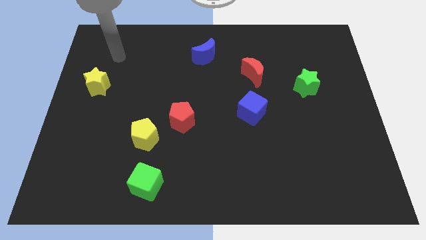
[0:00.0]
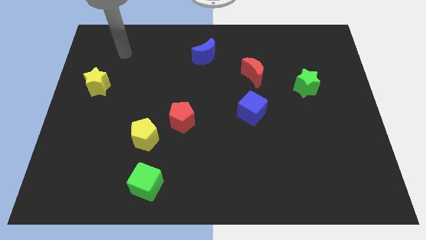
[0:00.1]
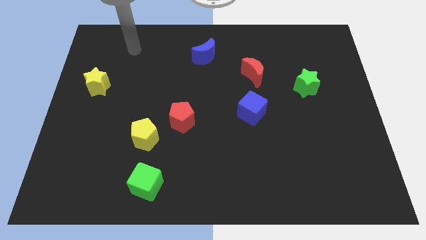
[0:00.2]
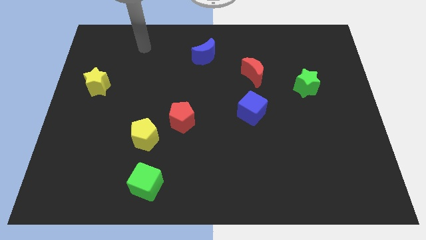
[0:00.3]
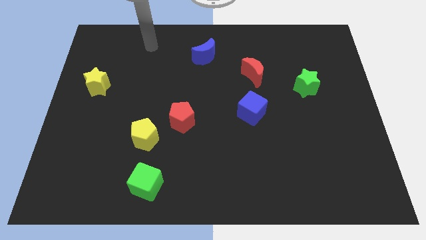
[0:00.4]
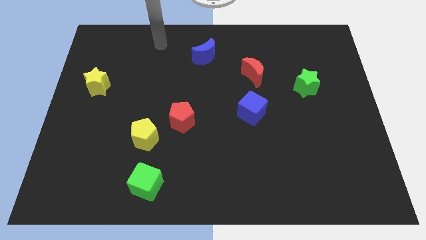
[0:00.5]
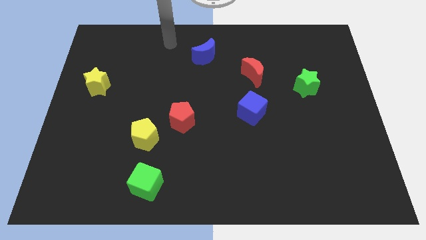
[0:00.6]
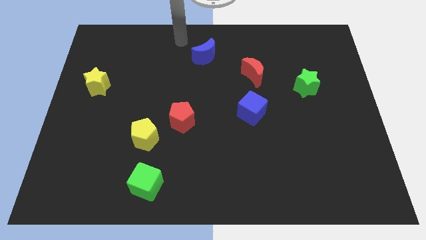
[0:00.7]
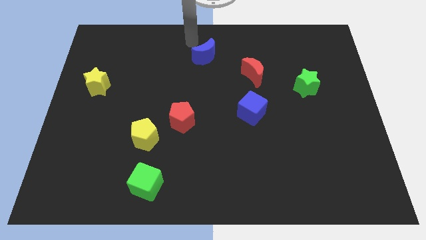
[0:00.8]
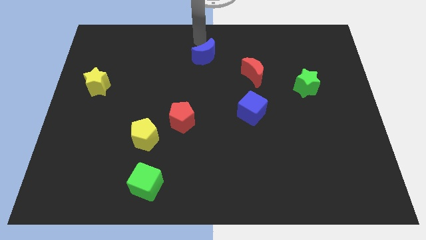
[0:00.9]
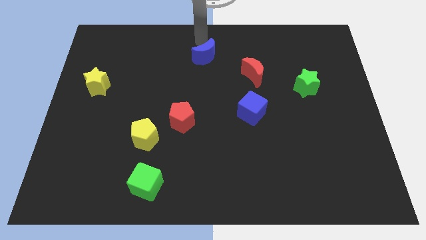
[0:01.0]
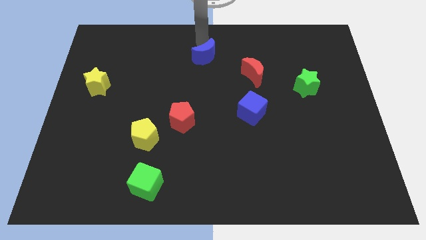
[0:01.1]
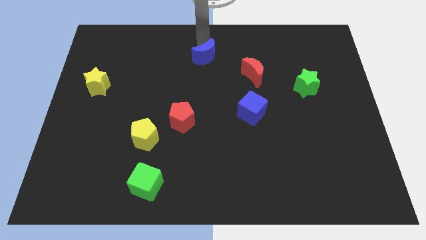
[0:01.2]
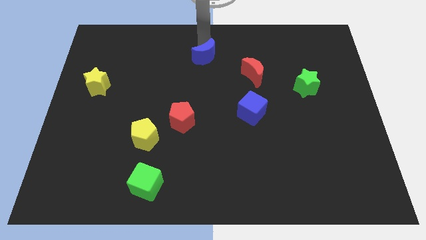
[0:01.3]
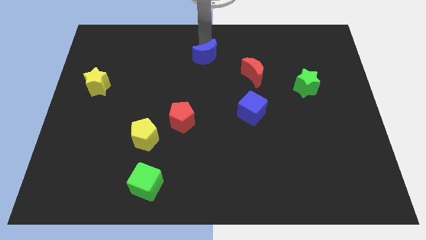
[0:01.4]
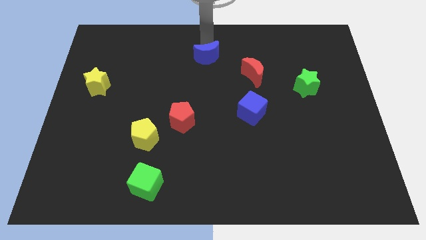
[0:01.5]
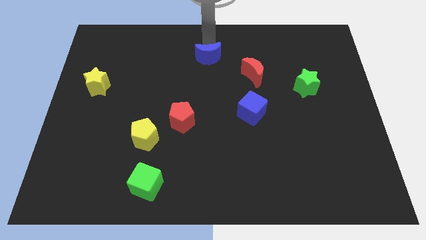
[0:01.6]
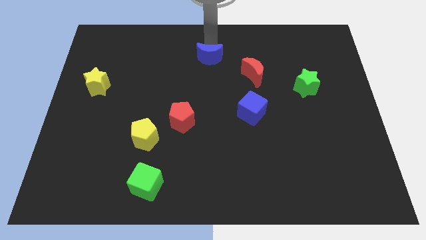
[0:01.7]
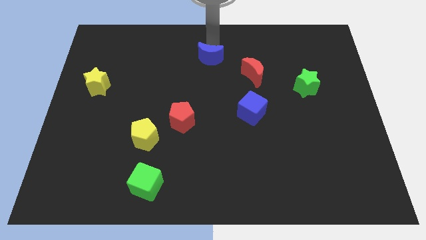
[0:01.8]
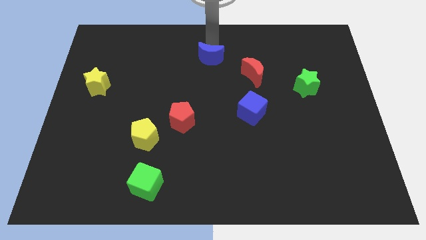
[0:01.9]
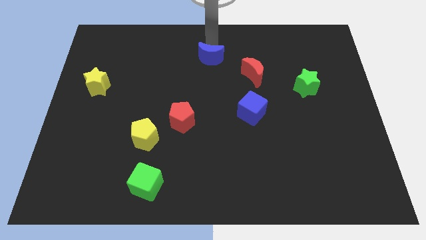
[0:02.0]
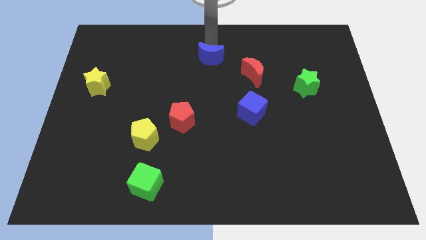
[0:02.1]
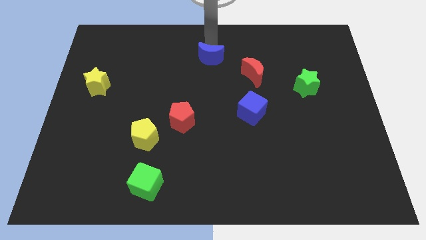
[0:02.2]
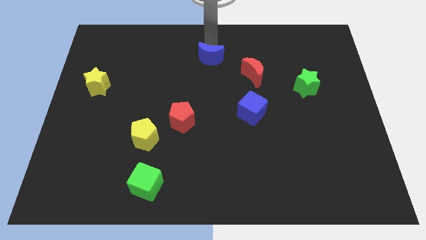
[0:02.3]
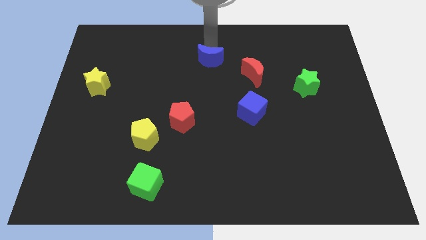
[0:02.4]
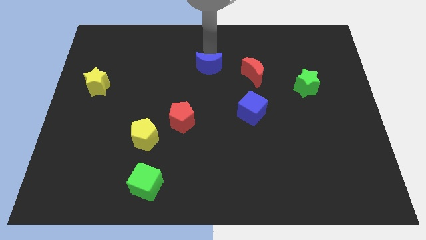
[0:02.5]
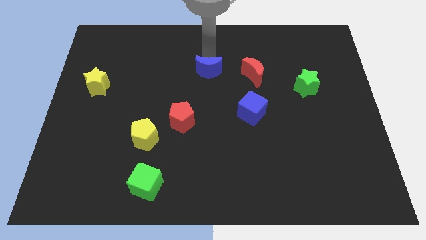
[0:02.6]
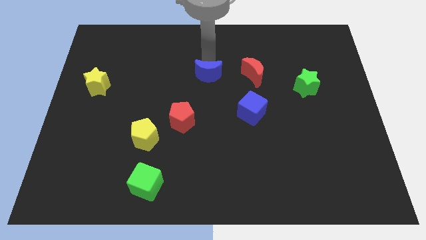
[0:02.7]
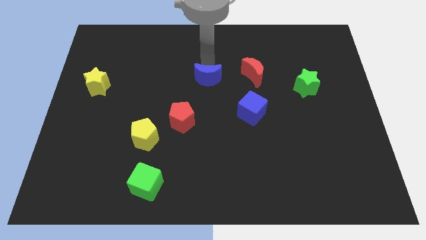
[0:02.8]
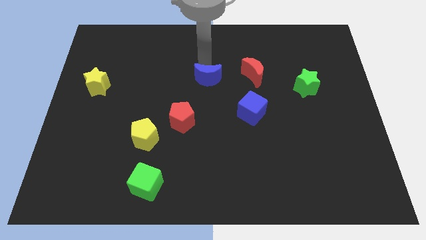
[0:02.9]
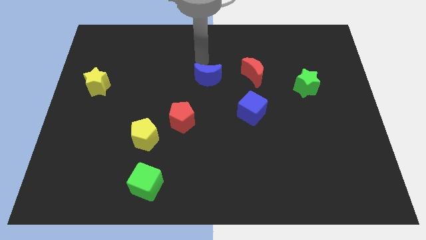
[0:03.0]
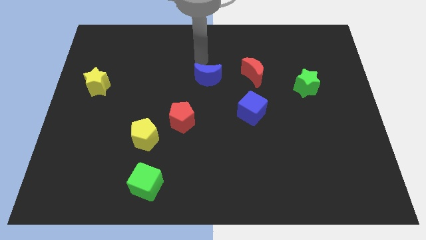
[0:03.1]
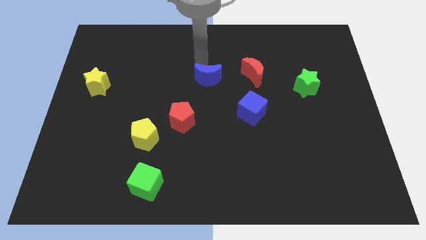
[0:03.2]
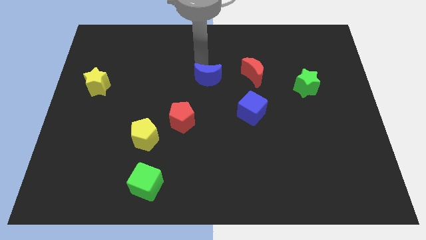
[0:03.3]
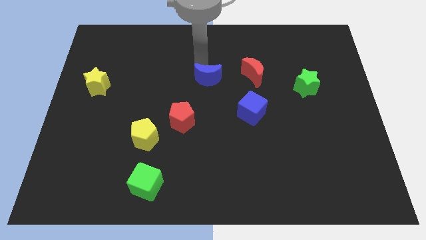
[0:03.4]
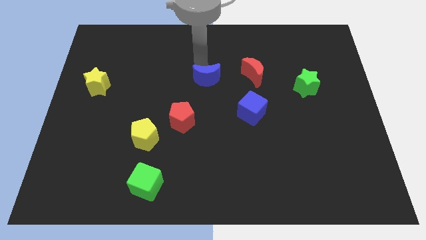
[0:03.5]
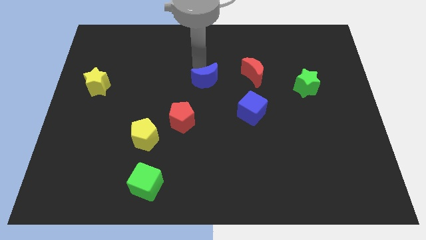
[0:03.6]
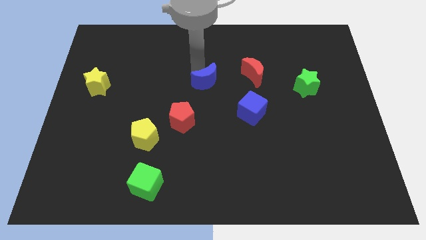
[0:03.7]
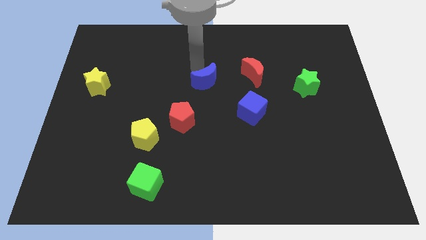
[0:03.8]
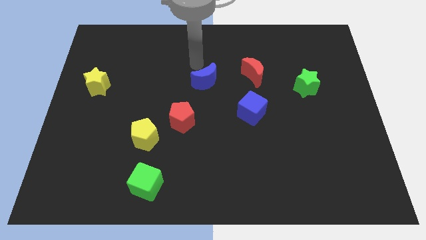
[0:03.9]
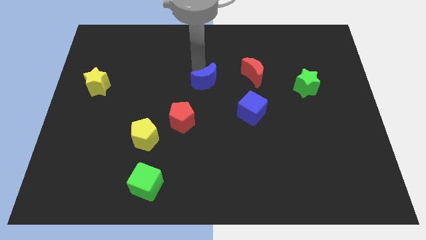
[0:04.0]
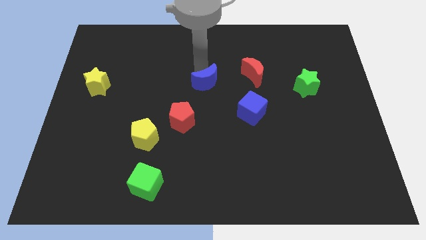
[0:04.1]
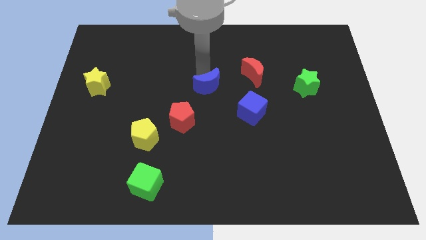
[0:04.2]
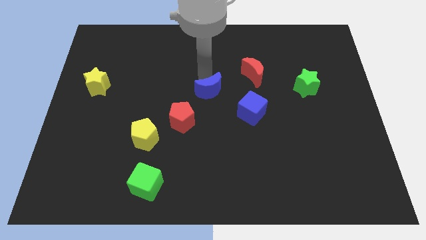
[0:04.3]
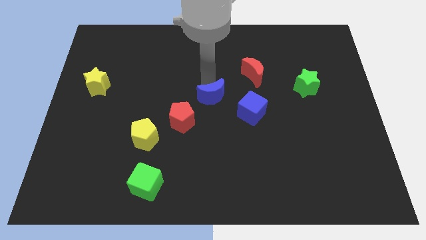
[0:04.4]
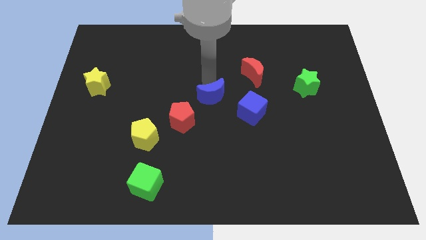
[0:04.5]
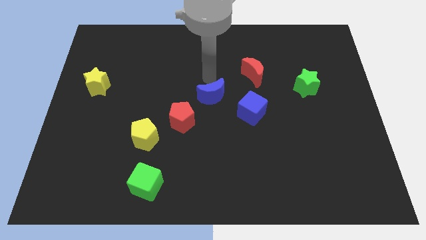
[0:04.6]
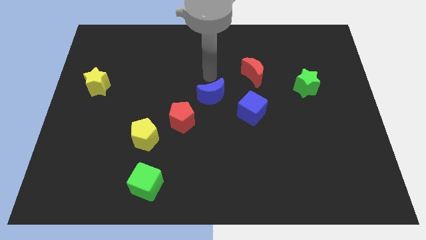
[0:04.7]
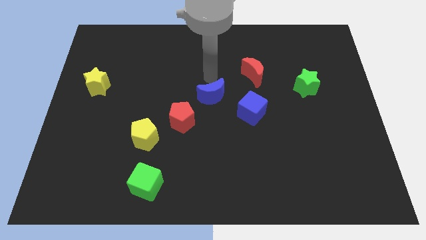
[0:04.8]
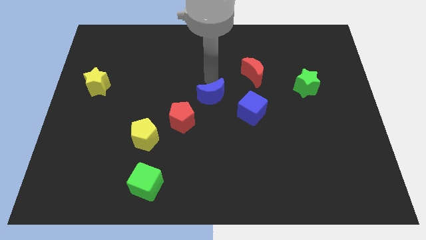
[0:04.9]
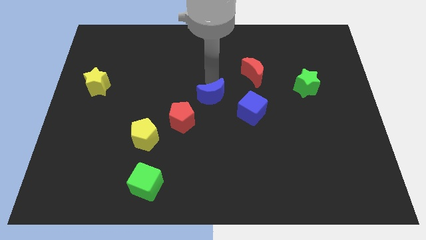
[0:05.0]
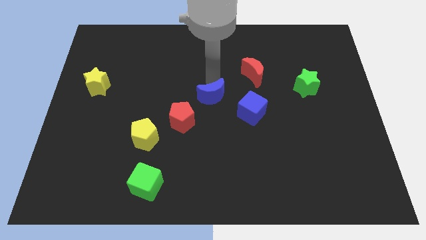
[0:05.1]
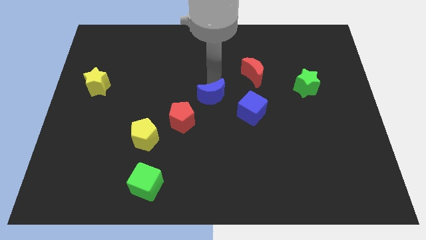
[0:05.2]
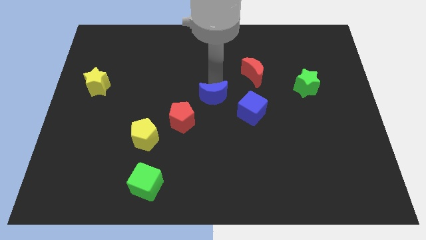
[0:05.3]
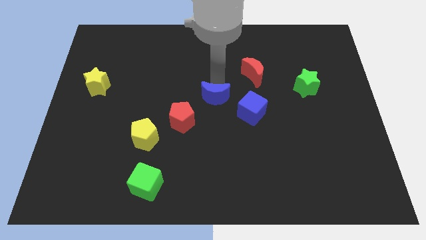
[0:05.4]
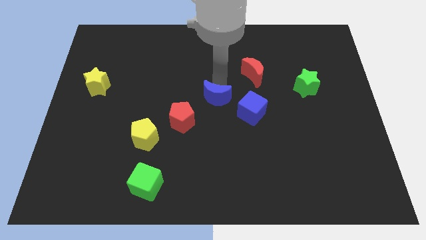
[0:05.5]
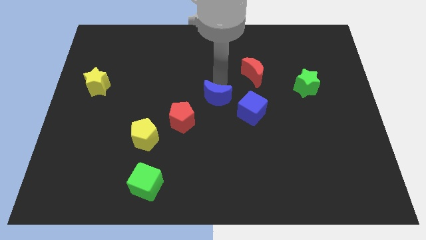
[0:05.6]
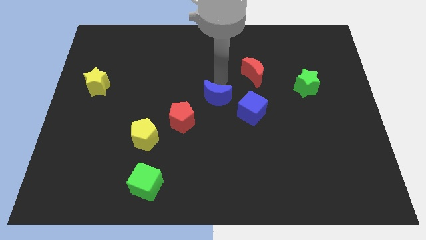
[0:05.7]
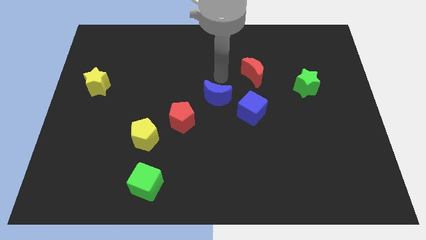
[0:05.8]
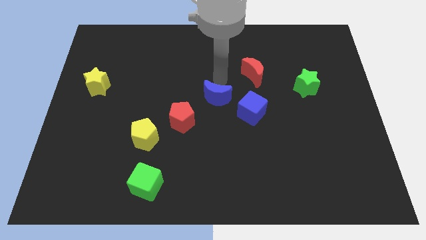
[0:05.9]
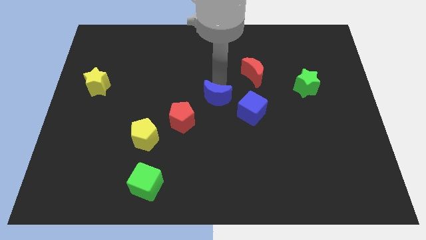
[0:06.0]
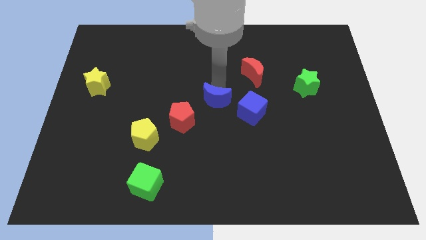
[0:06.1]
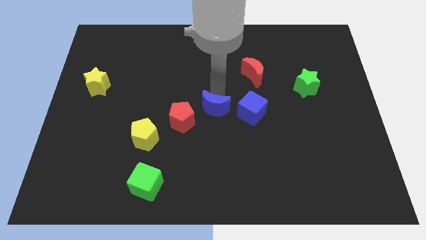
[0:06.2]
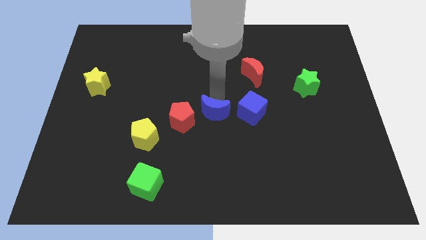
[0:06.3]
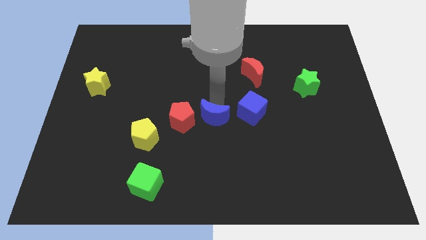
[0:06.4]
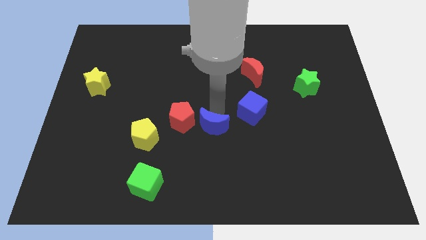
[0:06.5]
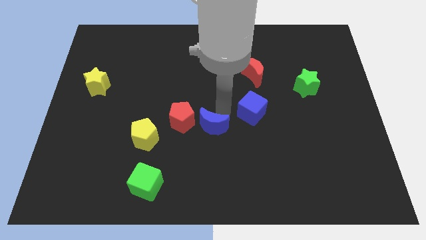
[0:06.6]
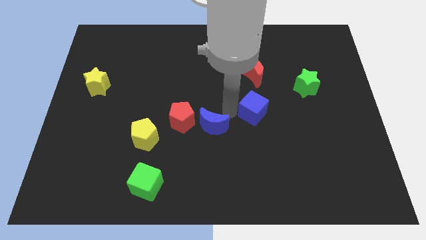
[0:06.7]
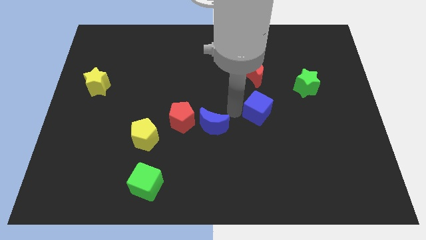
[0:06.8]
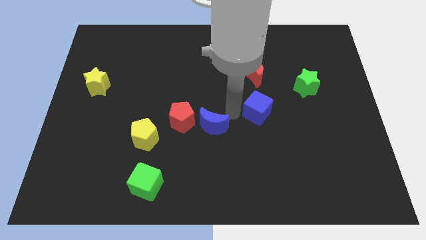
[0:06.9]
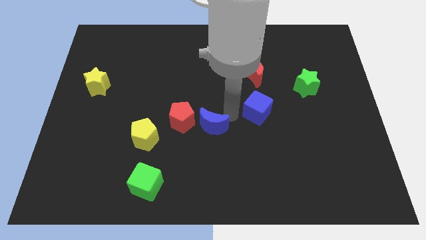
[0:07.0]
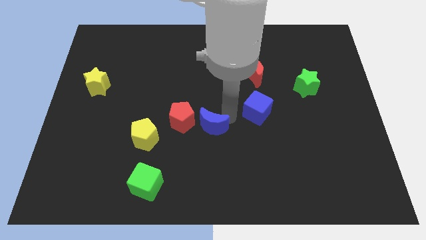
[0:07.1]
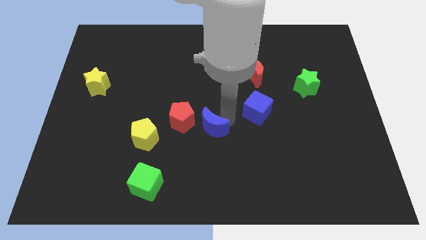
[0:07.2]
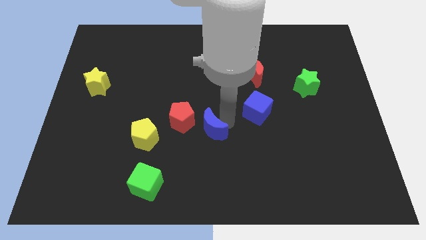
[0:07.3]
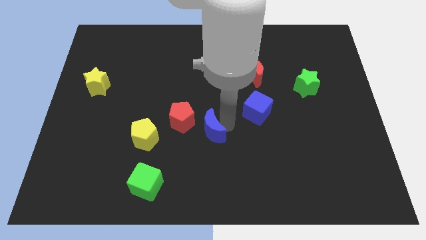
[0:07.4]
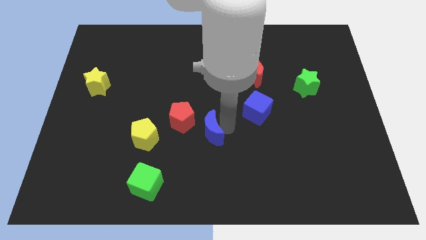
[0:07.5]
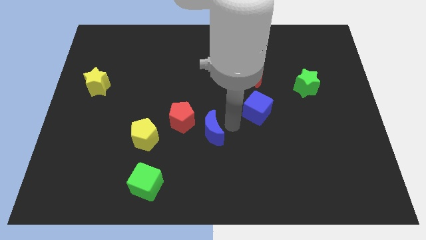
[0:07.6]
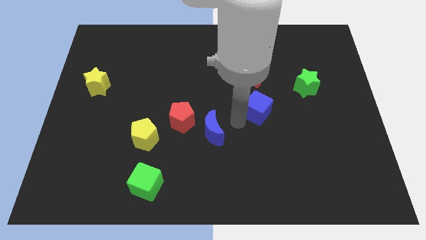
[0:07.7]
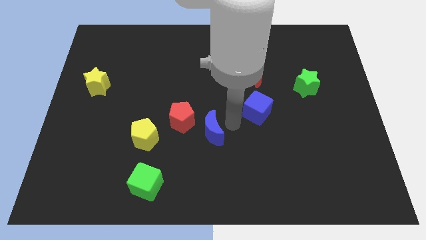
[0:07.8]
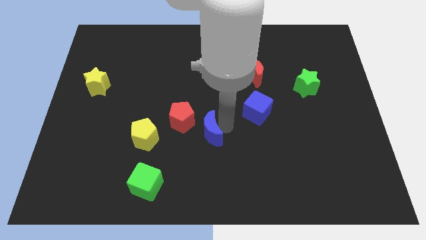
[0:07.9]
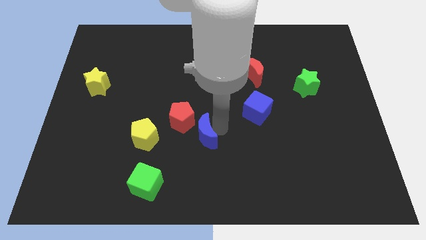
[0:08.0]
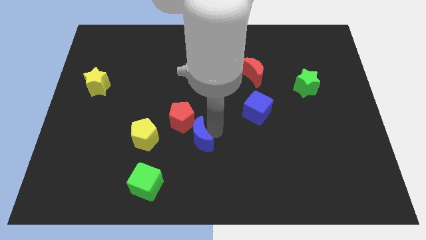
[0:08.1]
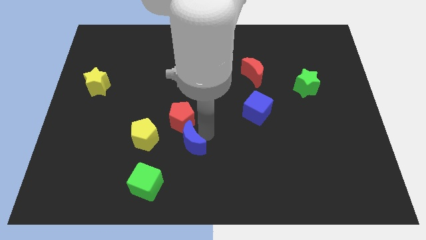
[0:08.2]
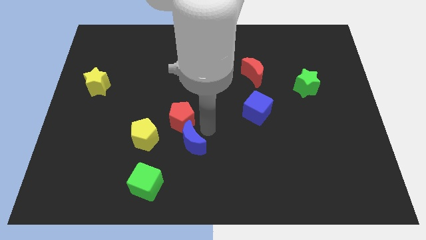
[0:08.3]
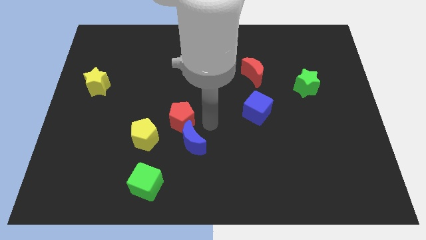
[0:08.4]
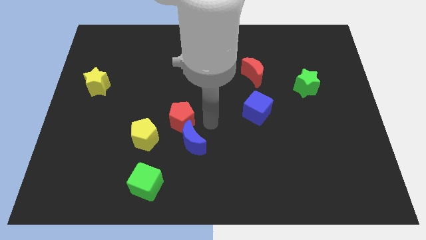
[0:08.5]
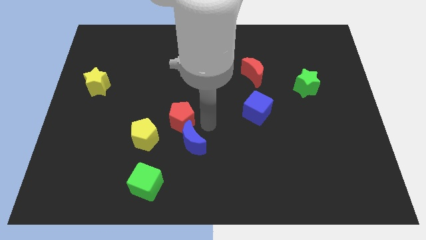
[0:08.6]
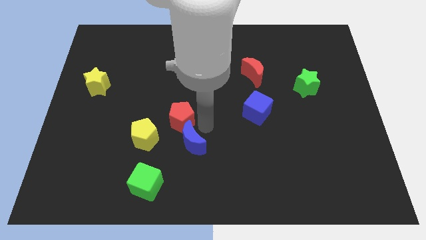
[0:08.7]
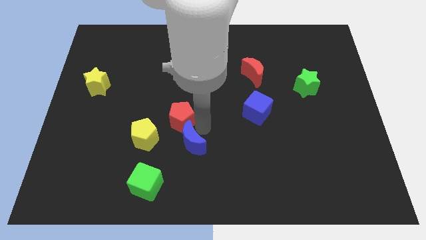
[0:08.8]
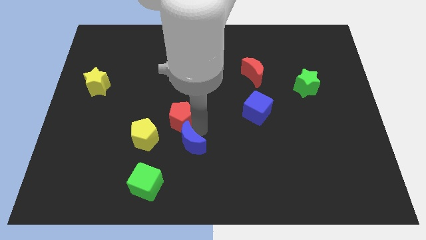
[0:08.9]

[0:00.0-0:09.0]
slide the blue moon to the top right side of the green cube
